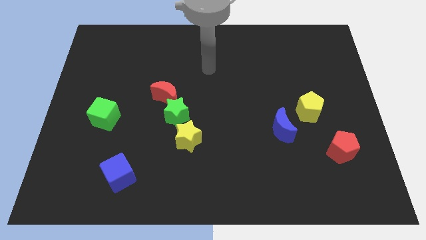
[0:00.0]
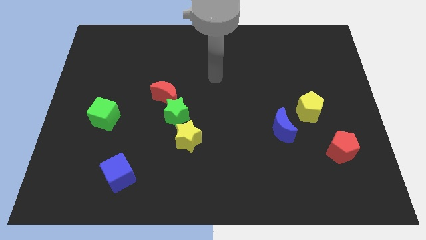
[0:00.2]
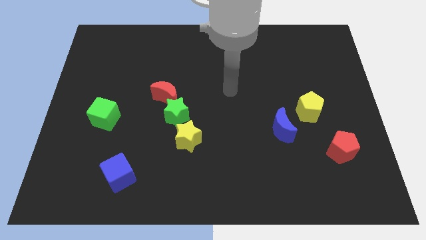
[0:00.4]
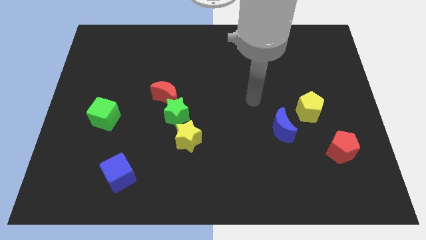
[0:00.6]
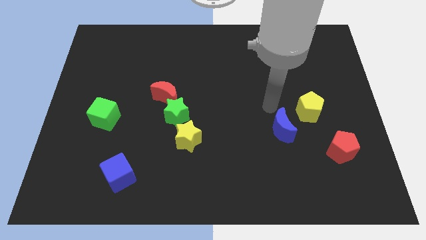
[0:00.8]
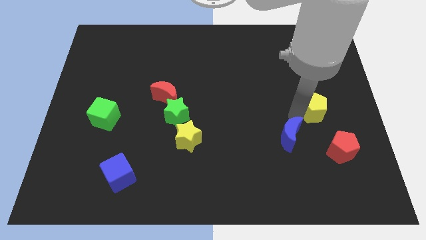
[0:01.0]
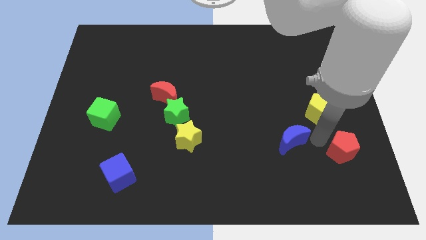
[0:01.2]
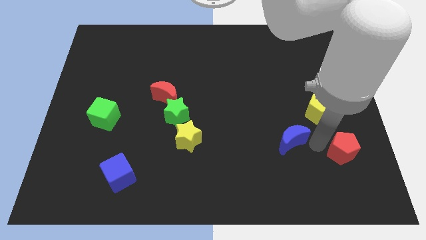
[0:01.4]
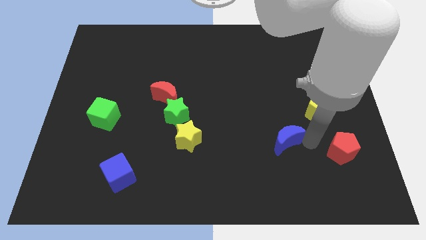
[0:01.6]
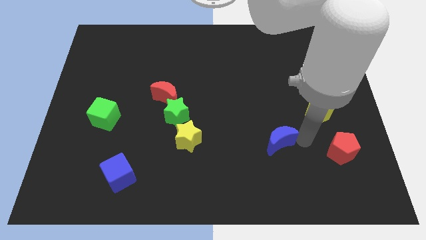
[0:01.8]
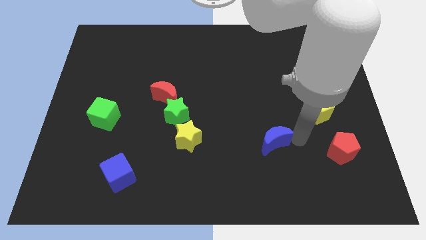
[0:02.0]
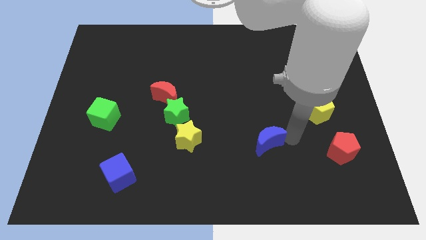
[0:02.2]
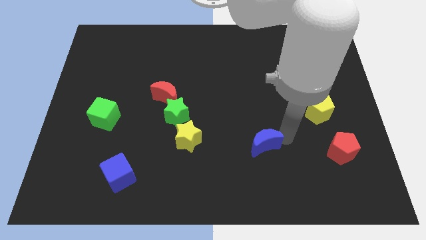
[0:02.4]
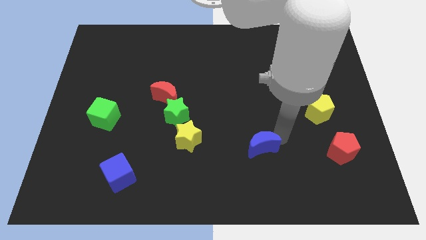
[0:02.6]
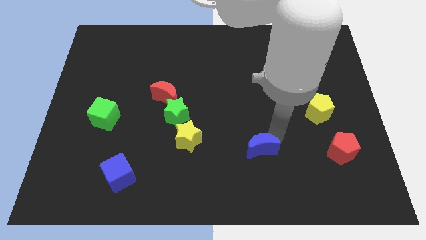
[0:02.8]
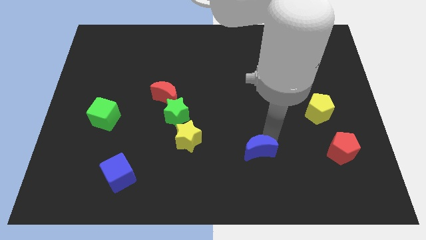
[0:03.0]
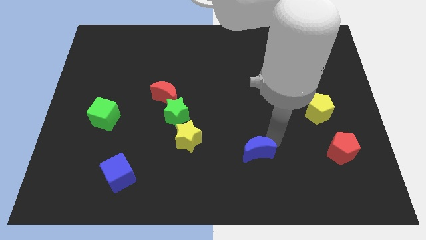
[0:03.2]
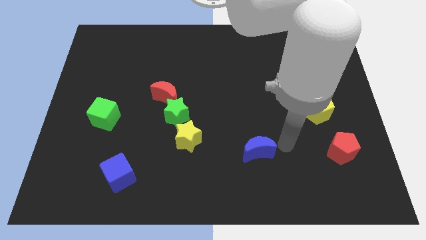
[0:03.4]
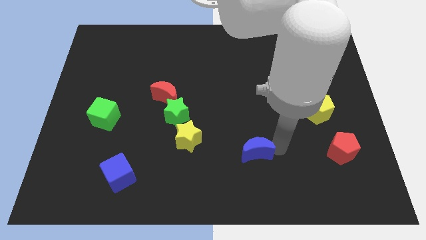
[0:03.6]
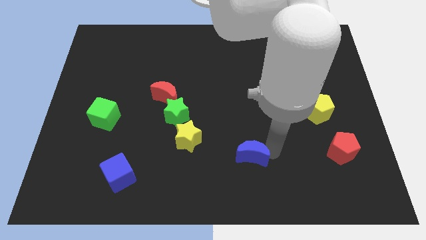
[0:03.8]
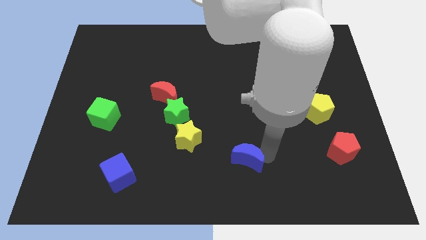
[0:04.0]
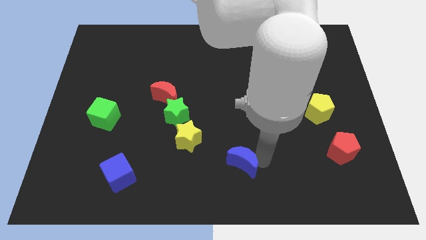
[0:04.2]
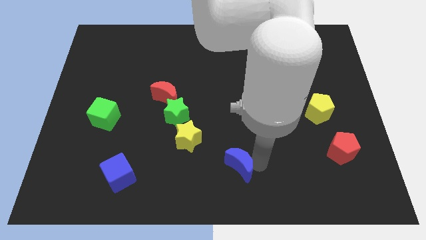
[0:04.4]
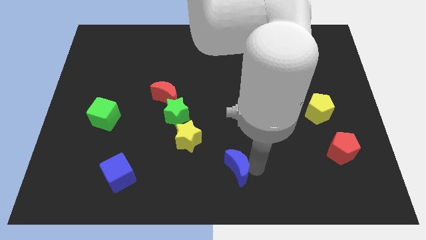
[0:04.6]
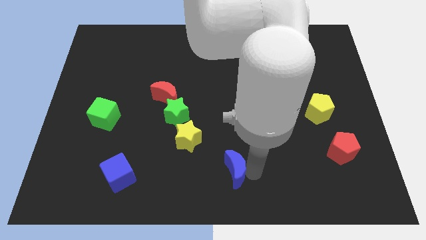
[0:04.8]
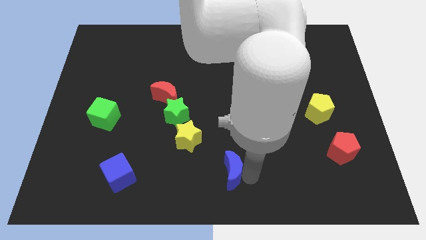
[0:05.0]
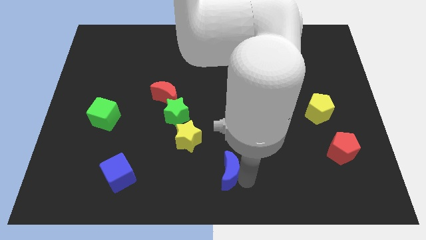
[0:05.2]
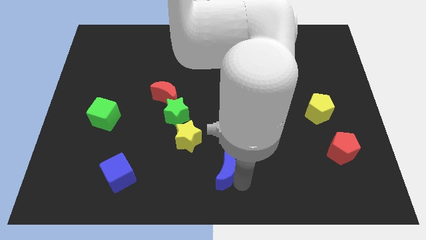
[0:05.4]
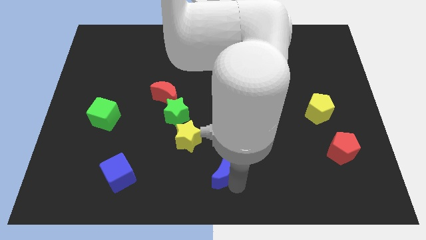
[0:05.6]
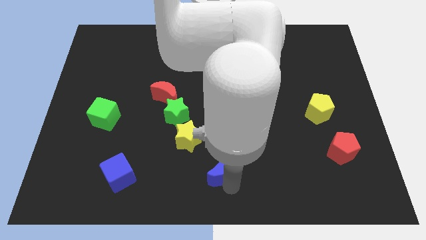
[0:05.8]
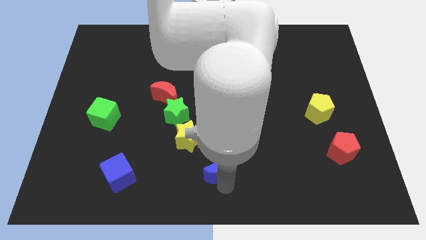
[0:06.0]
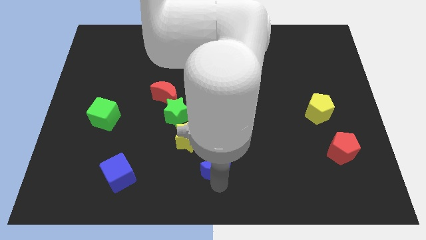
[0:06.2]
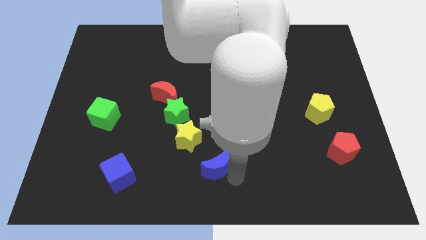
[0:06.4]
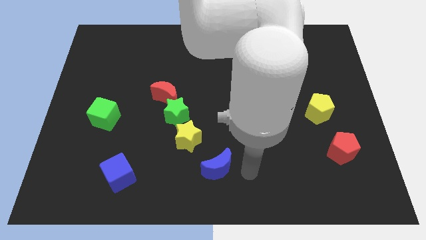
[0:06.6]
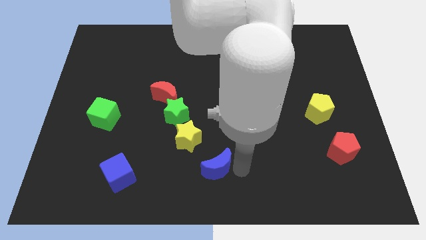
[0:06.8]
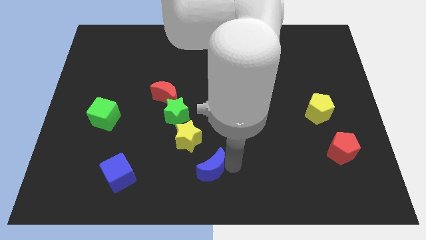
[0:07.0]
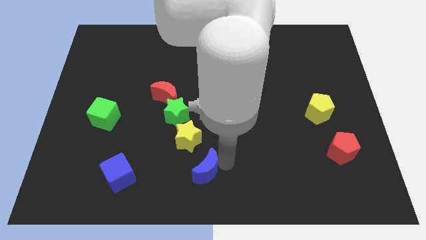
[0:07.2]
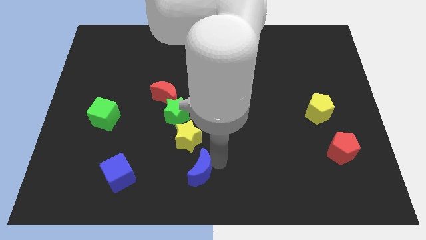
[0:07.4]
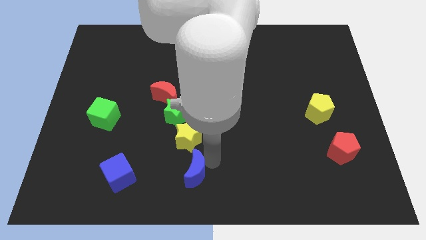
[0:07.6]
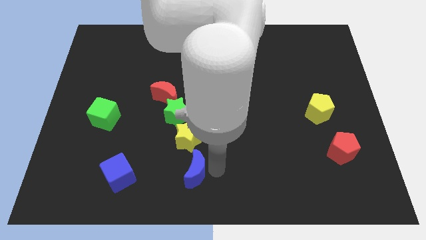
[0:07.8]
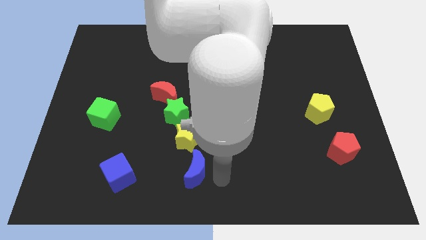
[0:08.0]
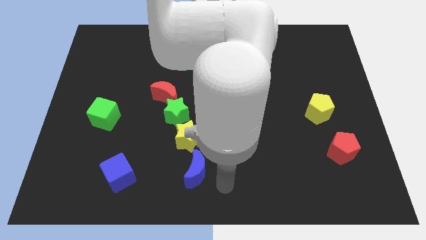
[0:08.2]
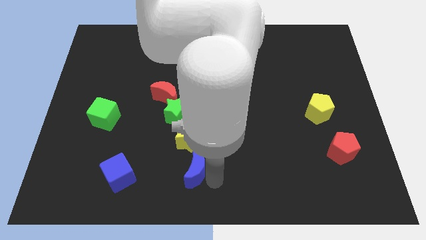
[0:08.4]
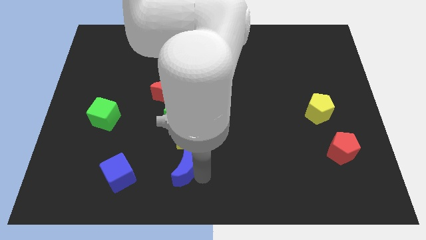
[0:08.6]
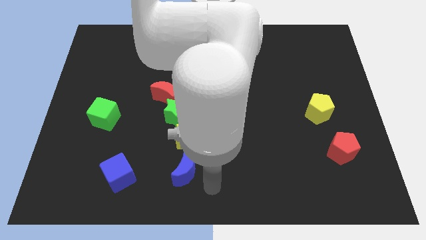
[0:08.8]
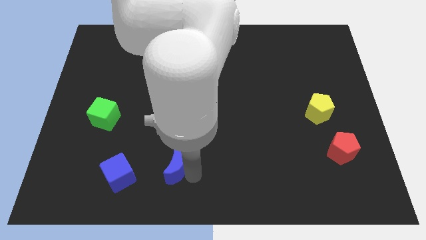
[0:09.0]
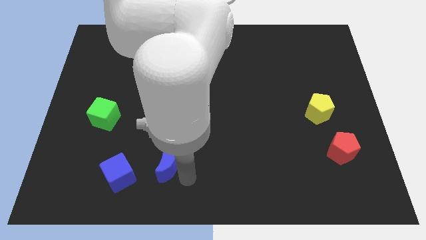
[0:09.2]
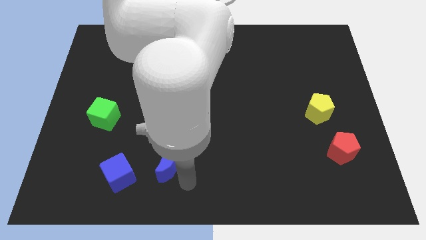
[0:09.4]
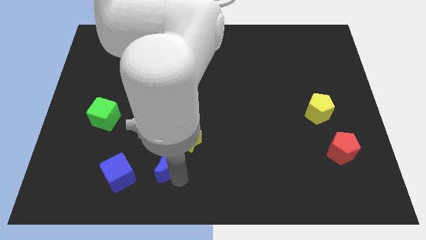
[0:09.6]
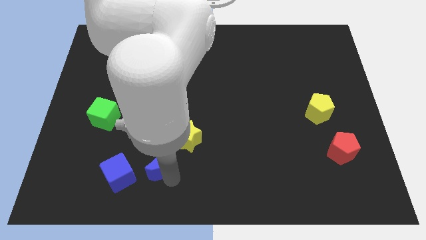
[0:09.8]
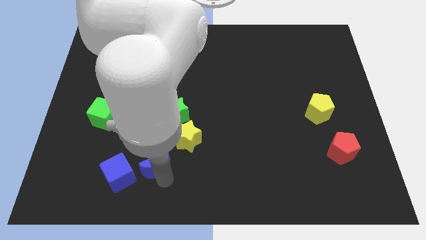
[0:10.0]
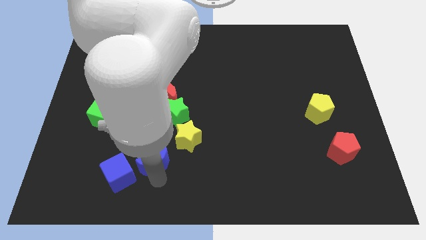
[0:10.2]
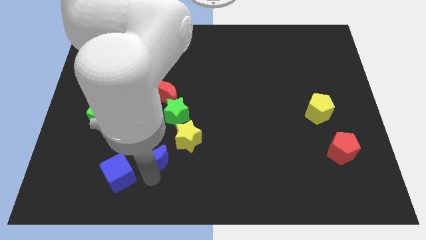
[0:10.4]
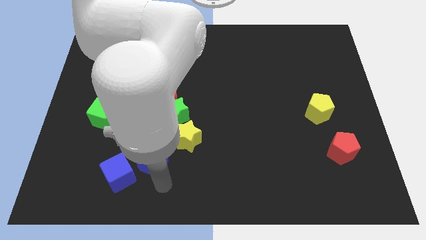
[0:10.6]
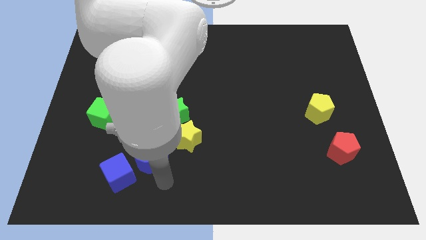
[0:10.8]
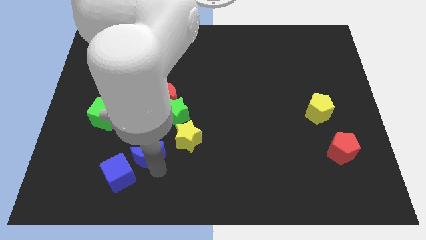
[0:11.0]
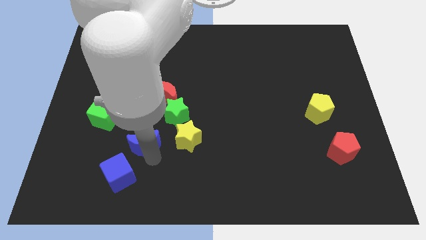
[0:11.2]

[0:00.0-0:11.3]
move the blue moon to the bottom right of the green cube
